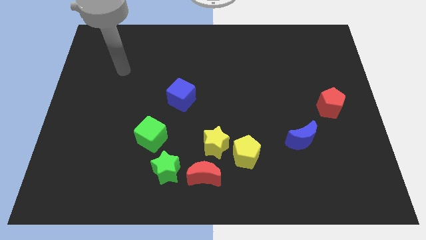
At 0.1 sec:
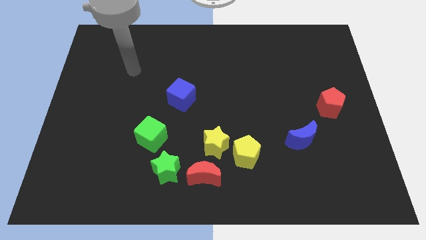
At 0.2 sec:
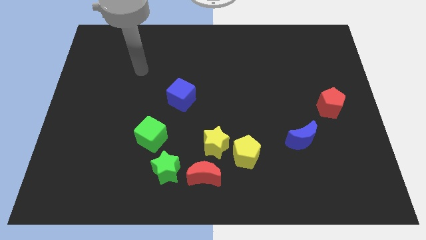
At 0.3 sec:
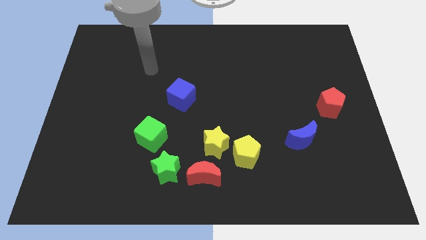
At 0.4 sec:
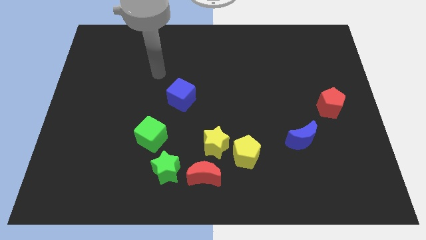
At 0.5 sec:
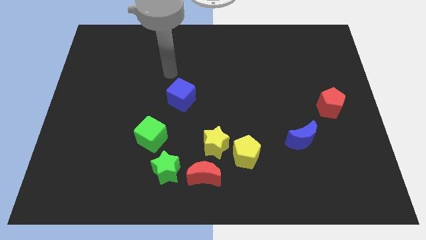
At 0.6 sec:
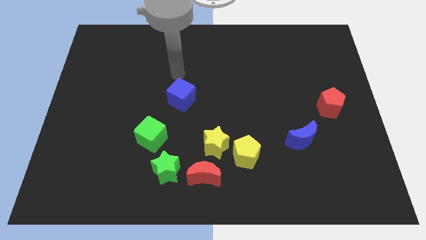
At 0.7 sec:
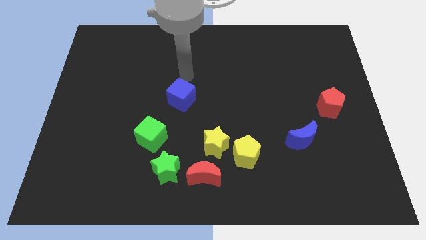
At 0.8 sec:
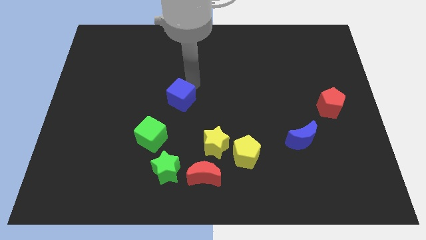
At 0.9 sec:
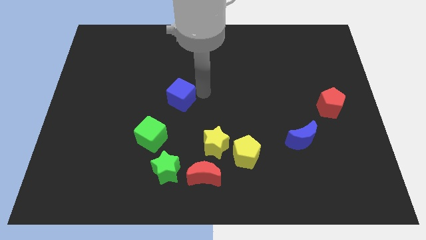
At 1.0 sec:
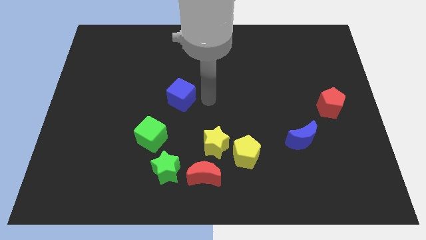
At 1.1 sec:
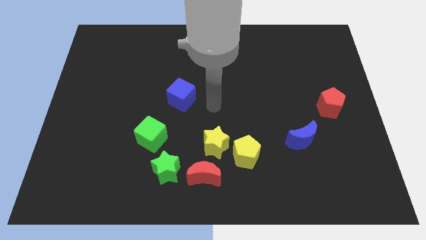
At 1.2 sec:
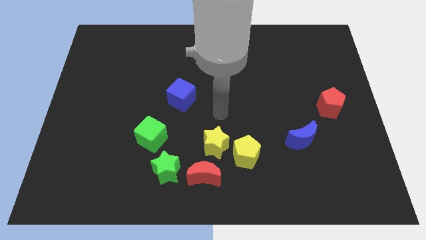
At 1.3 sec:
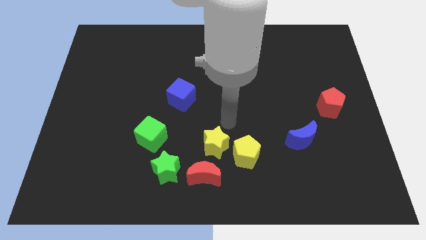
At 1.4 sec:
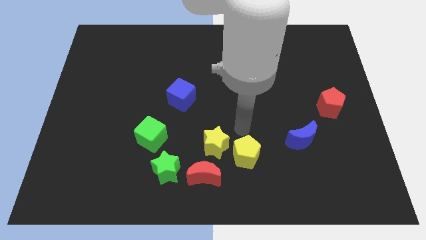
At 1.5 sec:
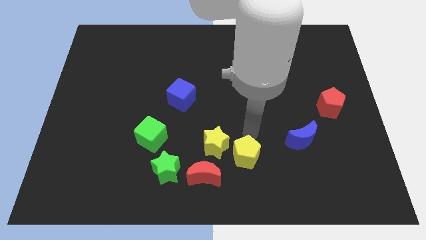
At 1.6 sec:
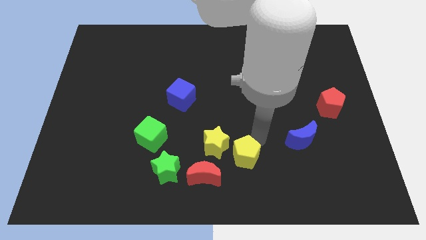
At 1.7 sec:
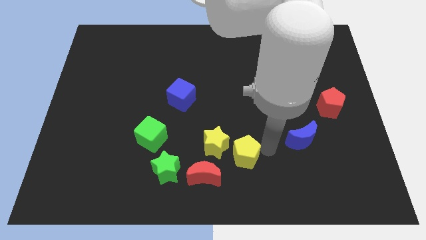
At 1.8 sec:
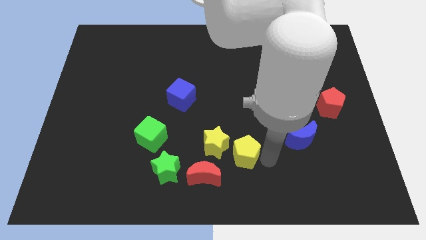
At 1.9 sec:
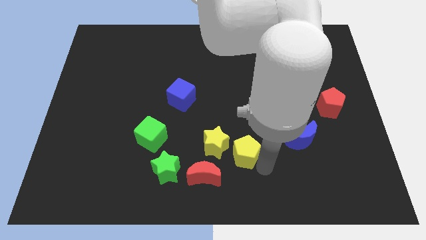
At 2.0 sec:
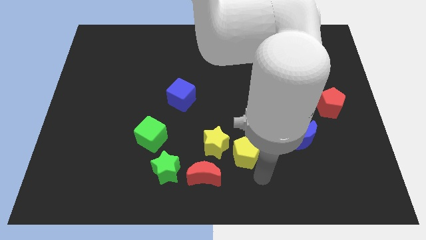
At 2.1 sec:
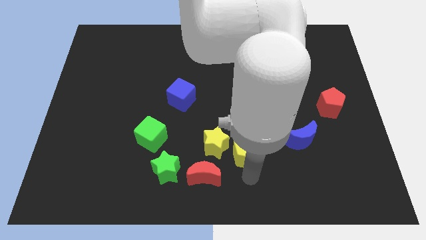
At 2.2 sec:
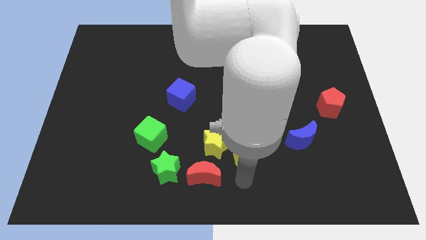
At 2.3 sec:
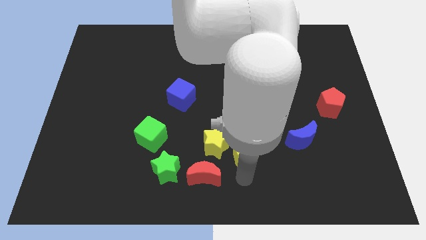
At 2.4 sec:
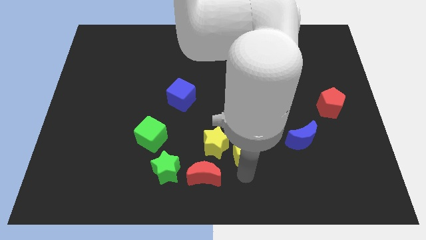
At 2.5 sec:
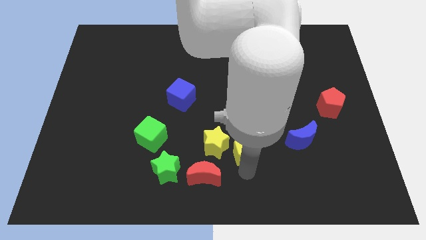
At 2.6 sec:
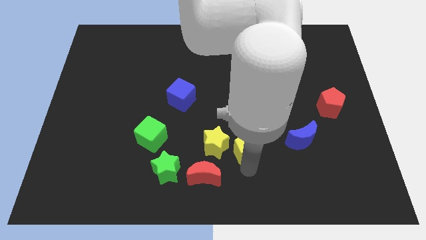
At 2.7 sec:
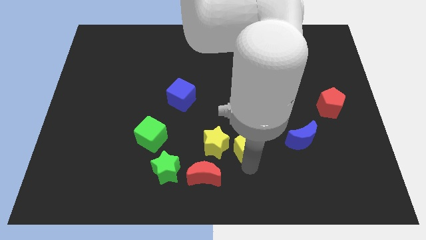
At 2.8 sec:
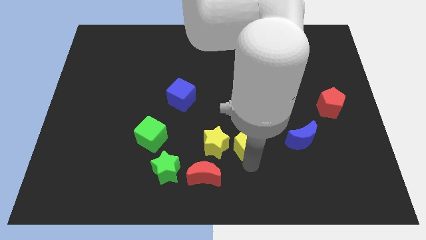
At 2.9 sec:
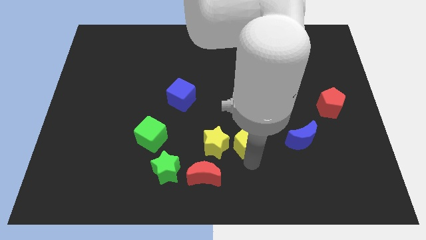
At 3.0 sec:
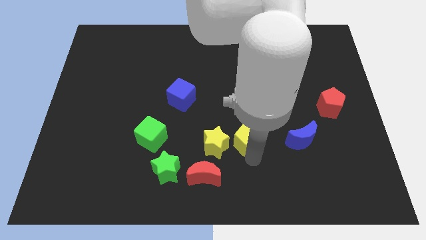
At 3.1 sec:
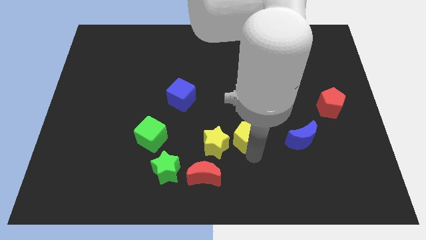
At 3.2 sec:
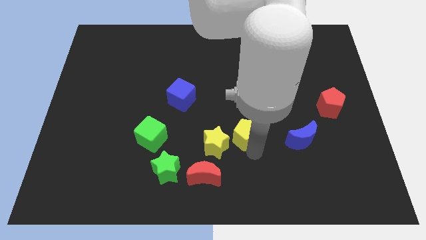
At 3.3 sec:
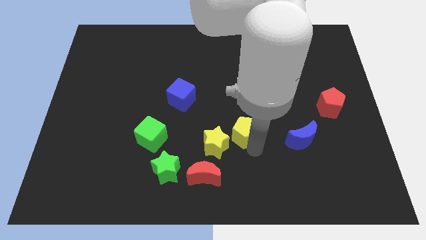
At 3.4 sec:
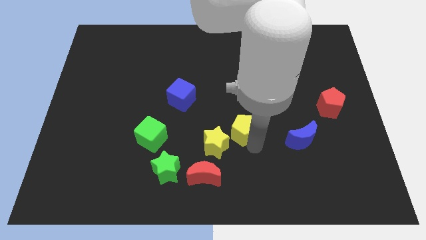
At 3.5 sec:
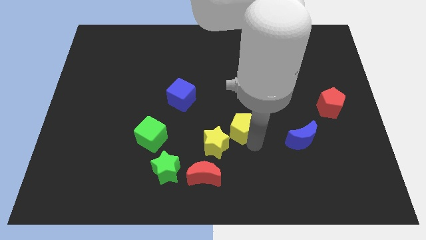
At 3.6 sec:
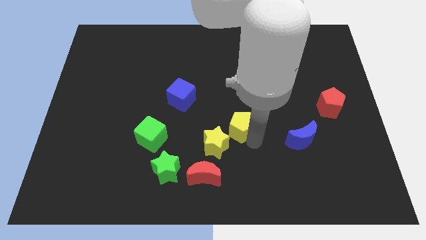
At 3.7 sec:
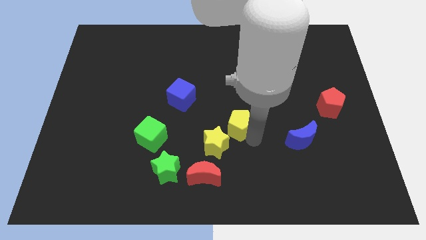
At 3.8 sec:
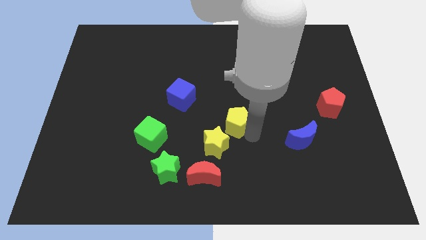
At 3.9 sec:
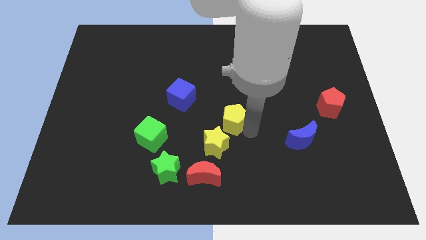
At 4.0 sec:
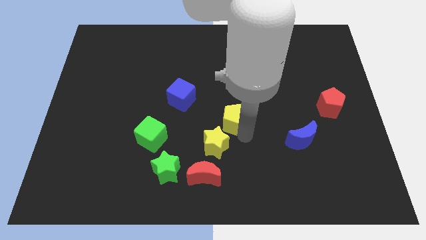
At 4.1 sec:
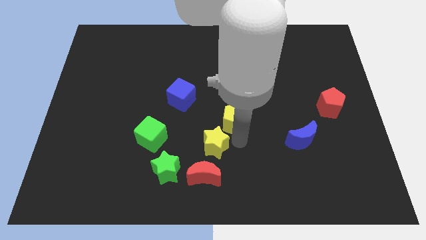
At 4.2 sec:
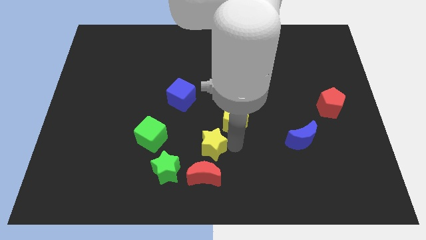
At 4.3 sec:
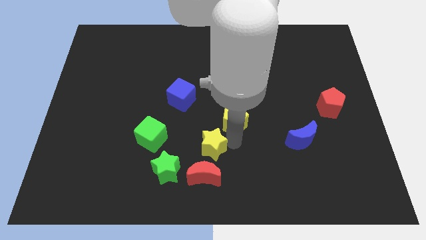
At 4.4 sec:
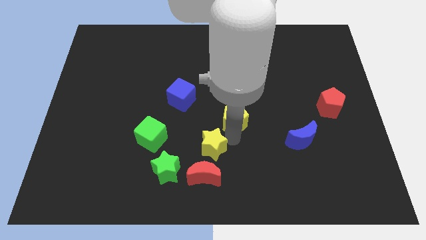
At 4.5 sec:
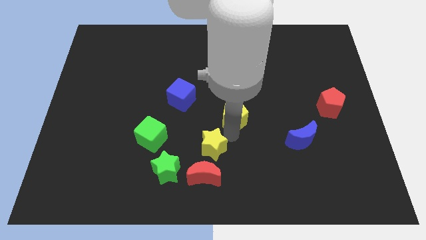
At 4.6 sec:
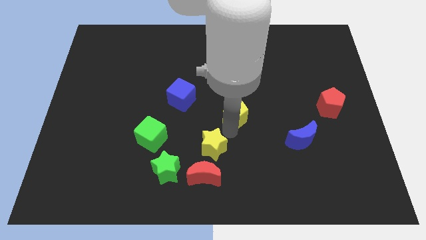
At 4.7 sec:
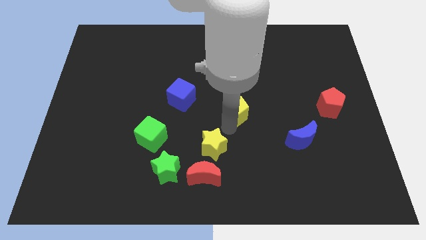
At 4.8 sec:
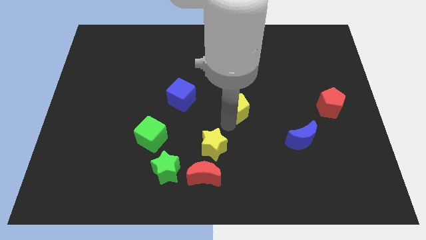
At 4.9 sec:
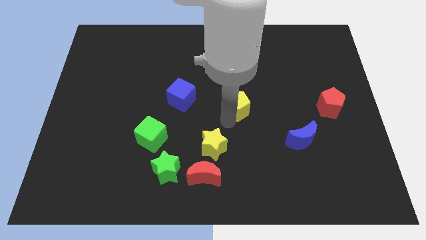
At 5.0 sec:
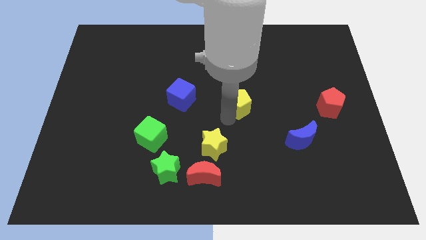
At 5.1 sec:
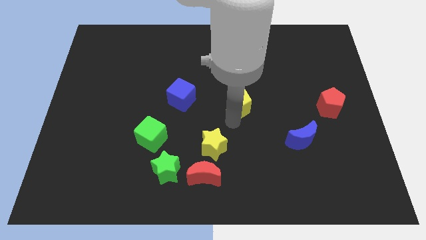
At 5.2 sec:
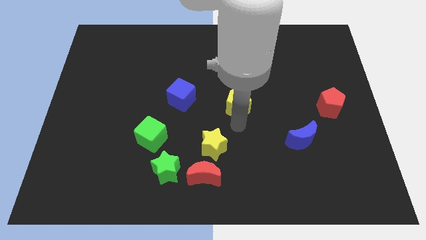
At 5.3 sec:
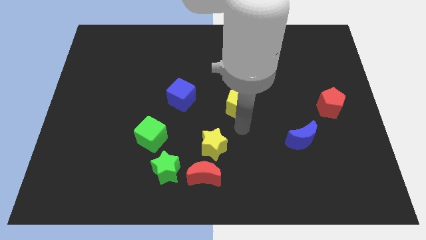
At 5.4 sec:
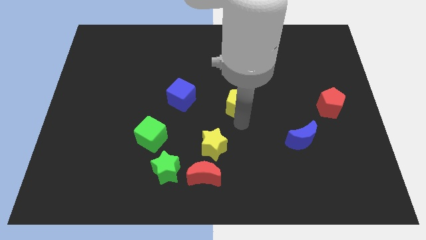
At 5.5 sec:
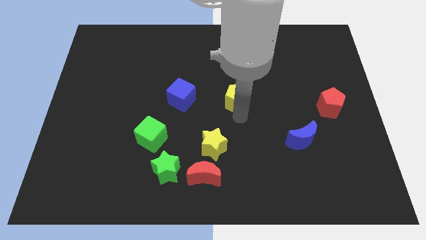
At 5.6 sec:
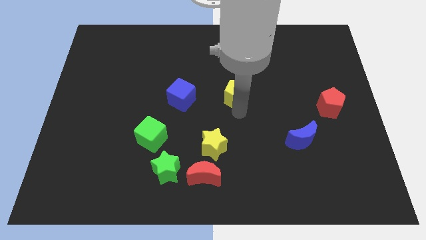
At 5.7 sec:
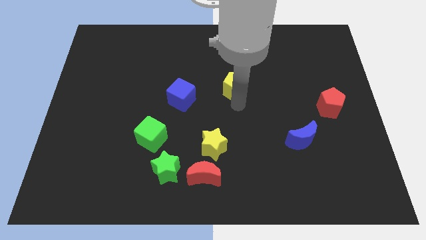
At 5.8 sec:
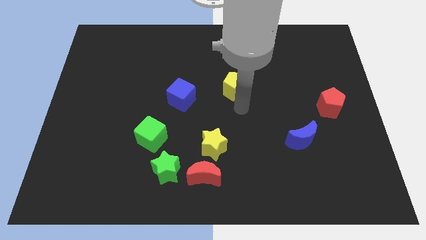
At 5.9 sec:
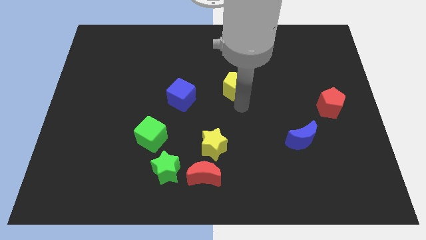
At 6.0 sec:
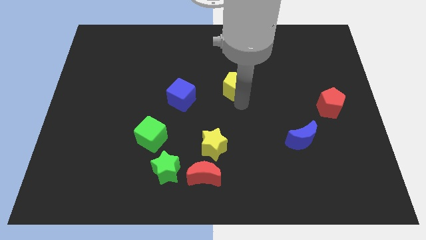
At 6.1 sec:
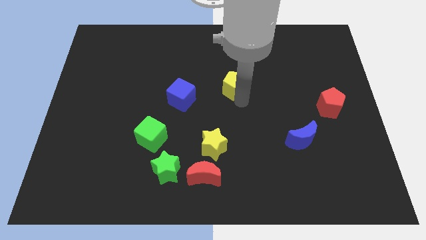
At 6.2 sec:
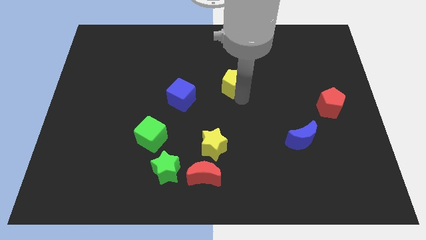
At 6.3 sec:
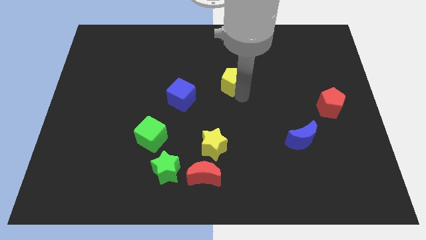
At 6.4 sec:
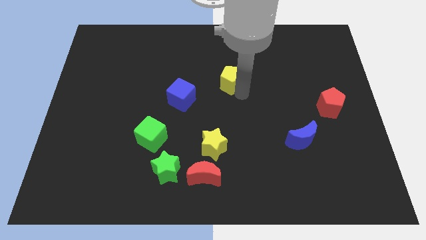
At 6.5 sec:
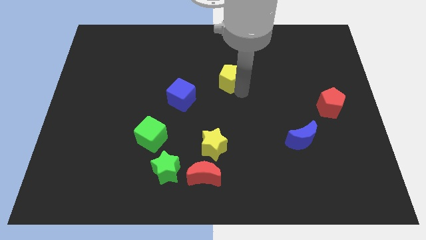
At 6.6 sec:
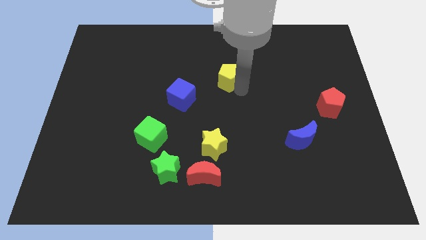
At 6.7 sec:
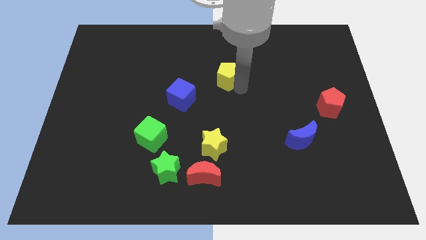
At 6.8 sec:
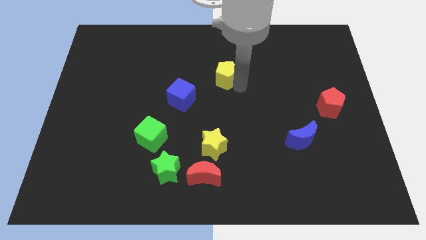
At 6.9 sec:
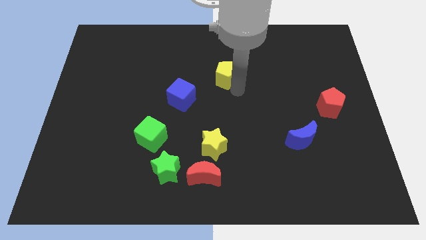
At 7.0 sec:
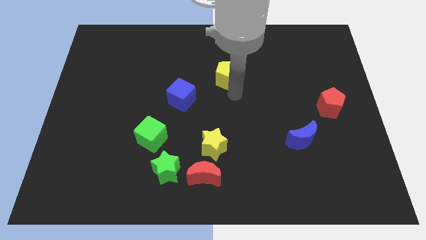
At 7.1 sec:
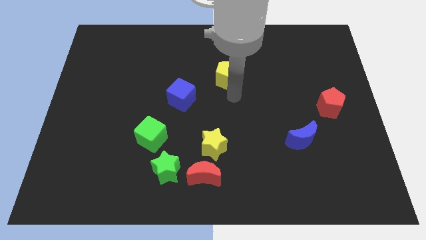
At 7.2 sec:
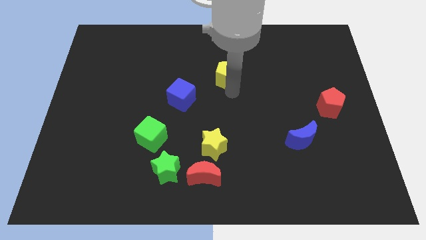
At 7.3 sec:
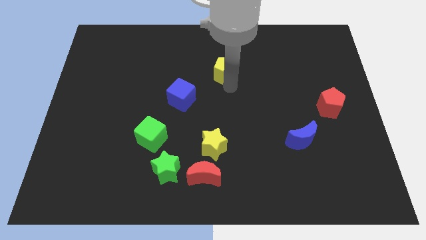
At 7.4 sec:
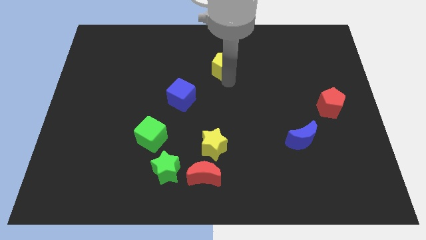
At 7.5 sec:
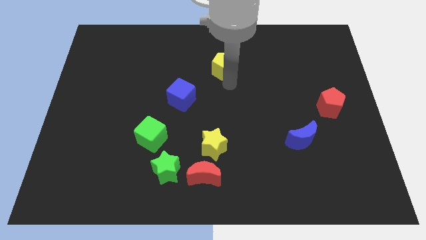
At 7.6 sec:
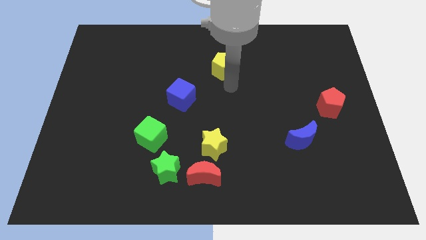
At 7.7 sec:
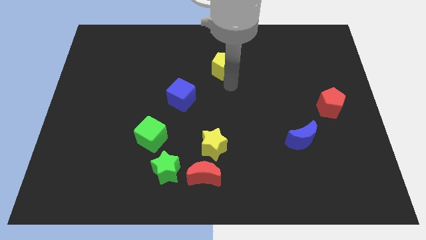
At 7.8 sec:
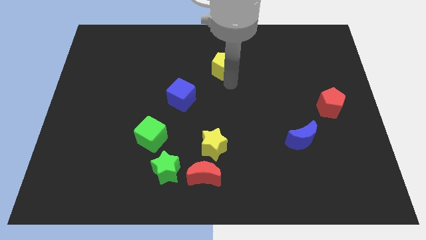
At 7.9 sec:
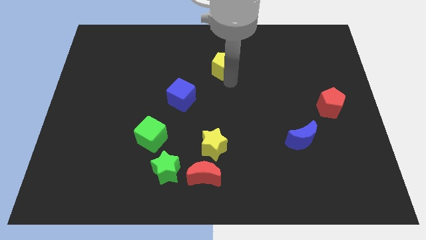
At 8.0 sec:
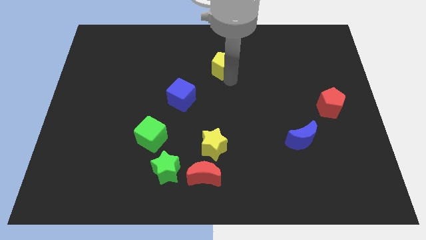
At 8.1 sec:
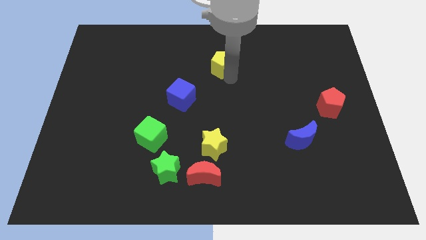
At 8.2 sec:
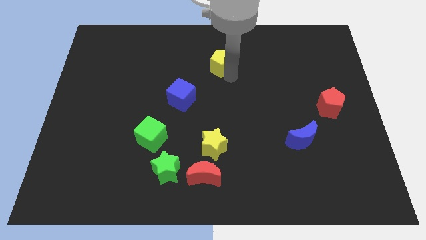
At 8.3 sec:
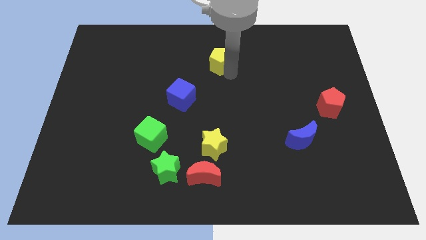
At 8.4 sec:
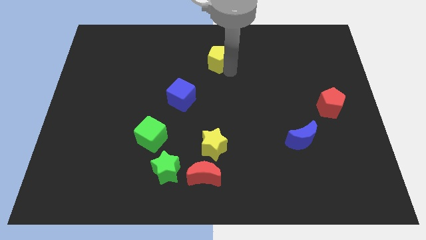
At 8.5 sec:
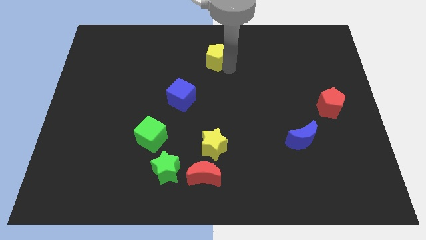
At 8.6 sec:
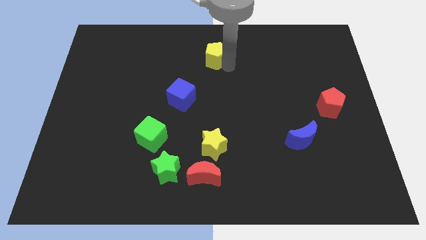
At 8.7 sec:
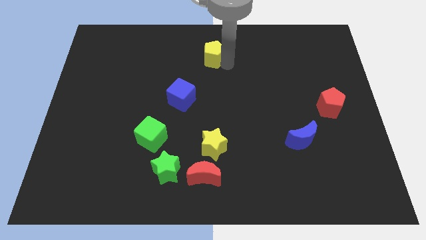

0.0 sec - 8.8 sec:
slide the yellow pentagon to the towards your base
